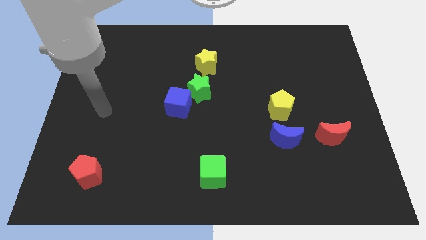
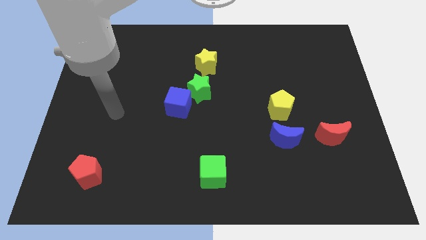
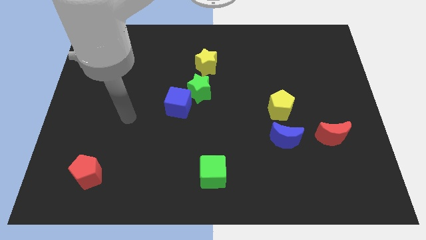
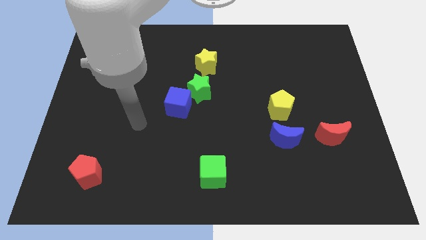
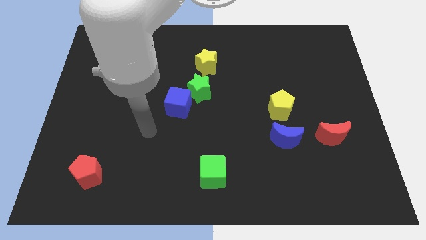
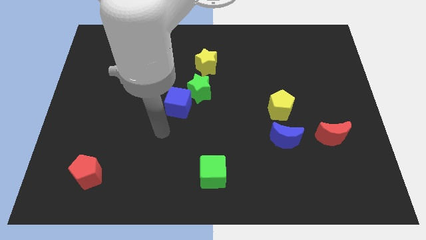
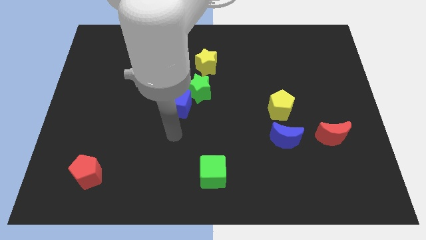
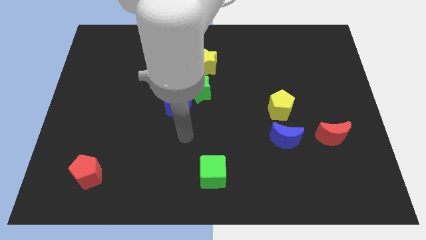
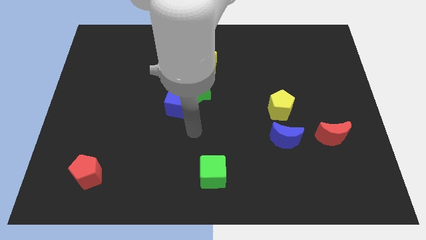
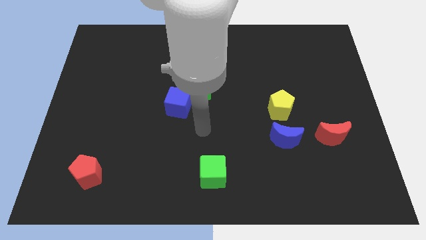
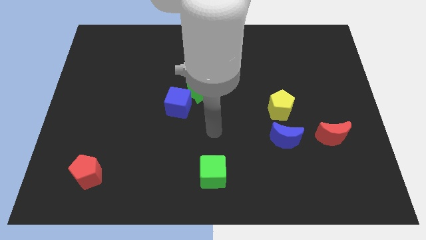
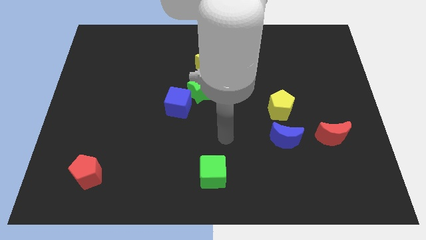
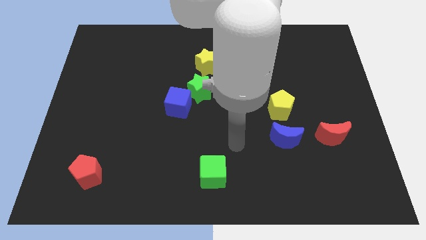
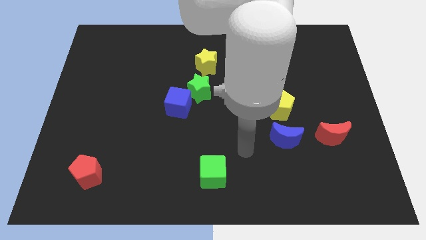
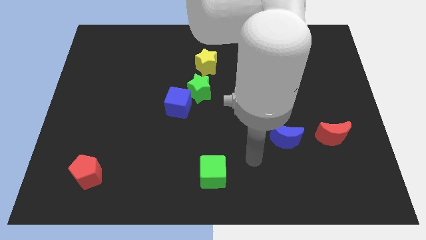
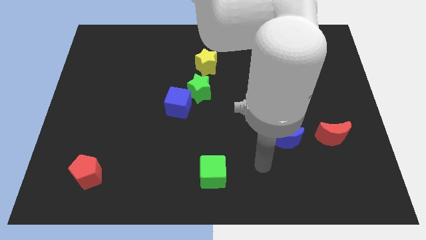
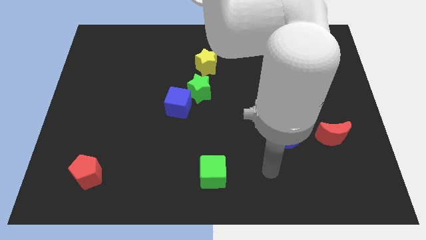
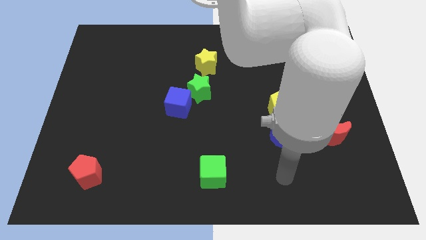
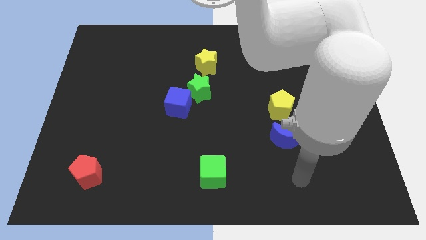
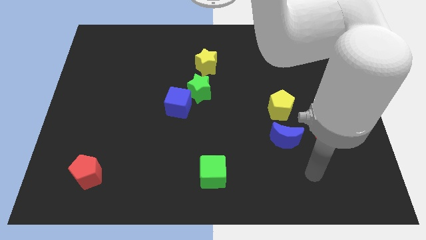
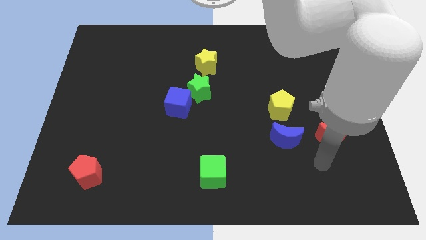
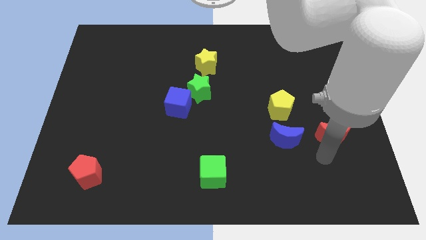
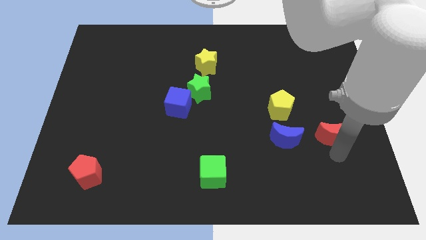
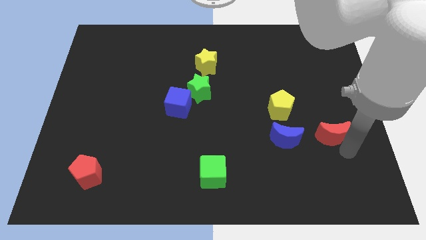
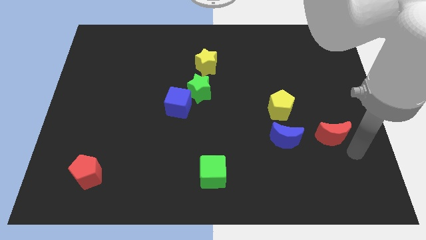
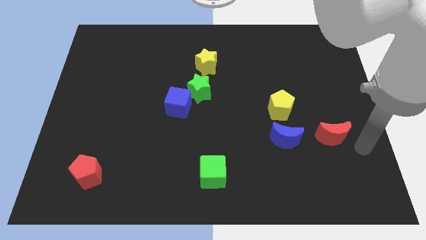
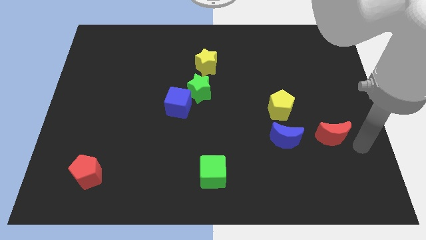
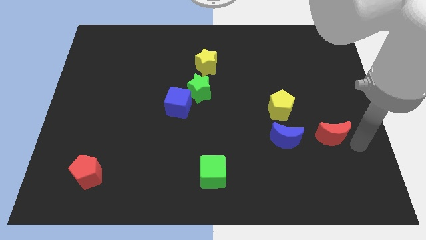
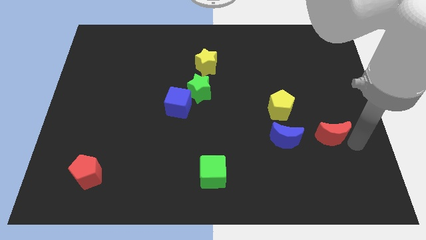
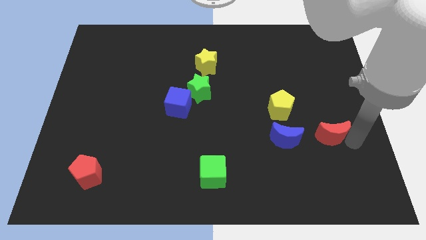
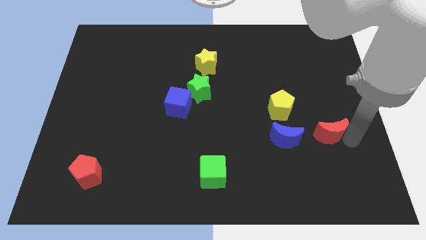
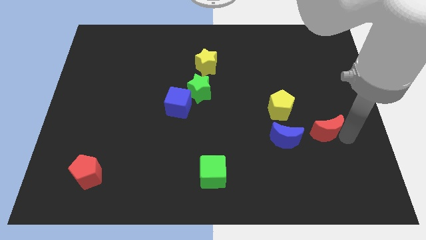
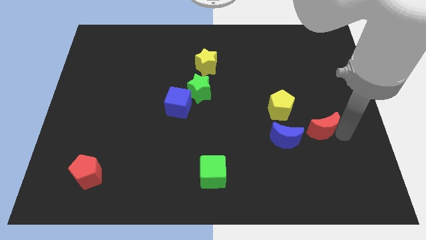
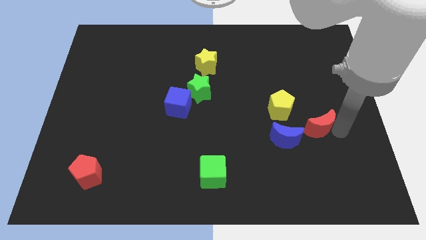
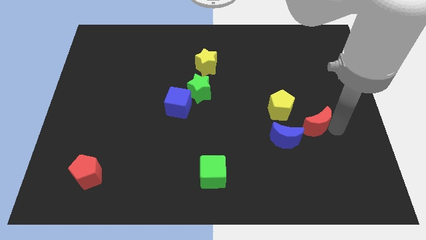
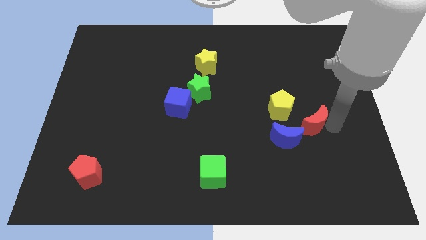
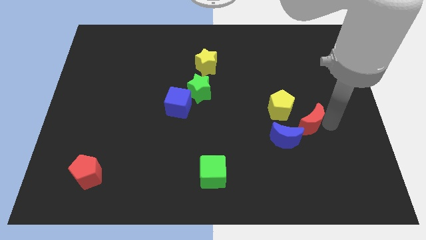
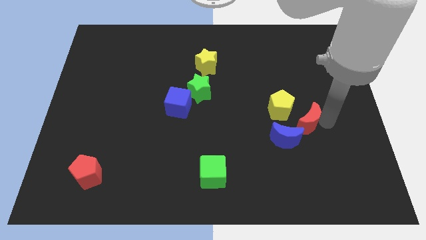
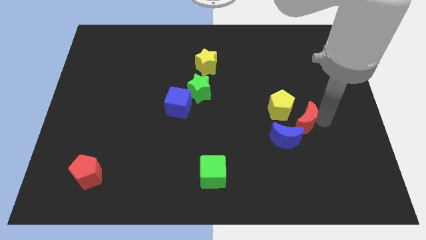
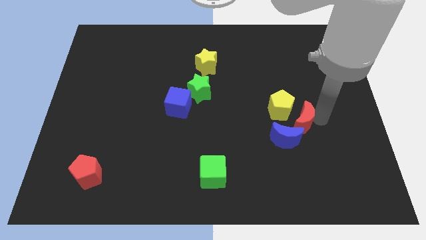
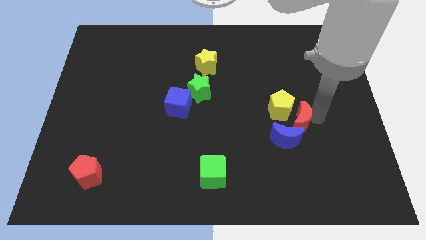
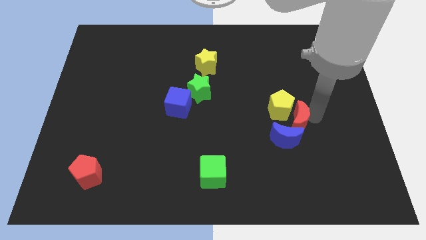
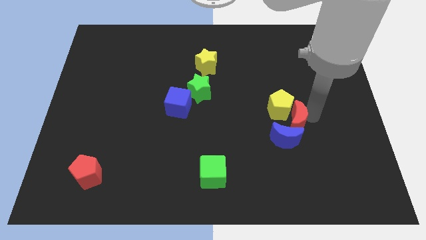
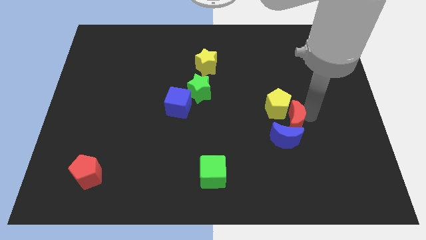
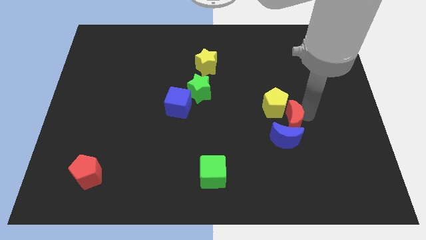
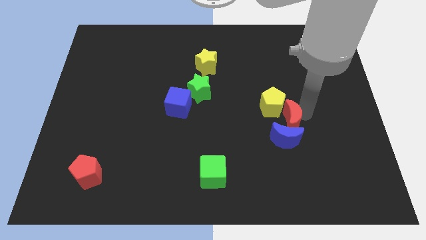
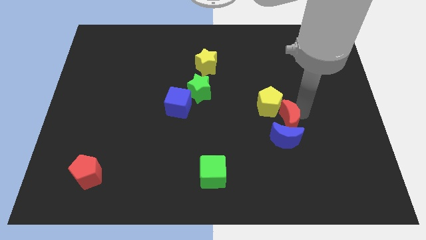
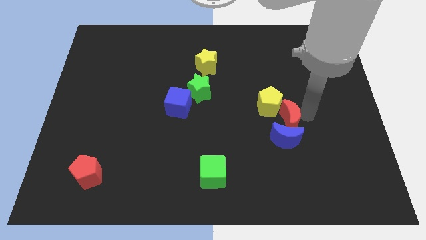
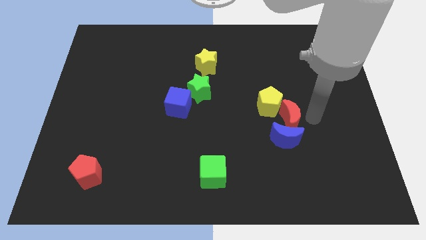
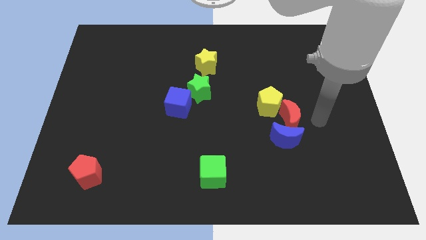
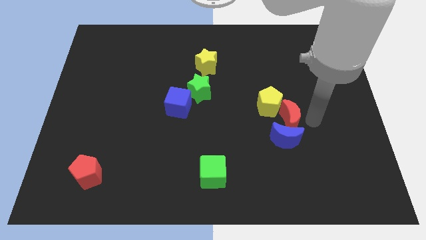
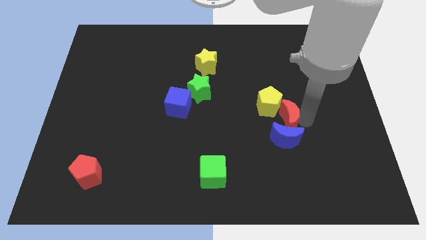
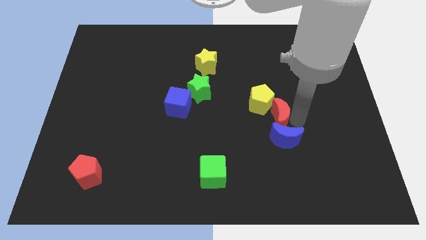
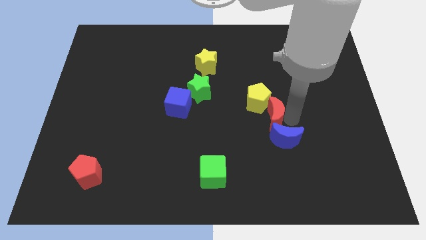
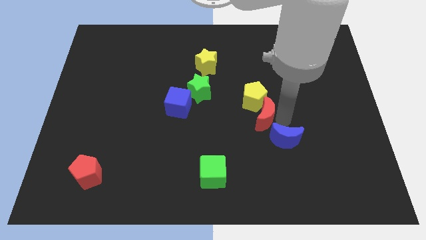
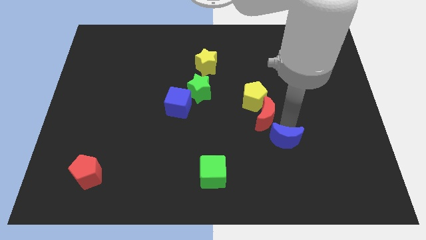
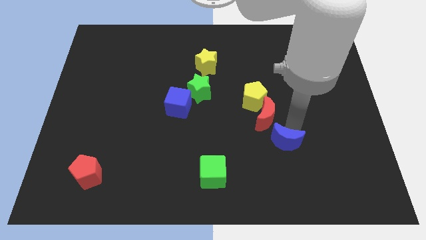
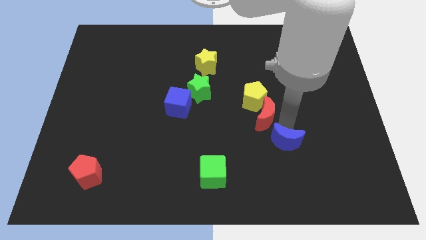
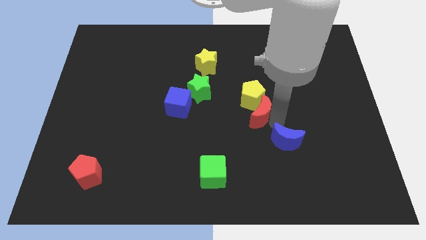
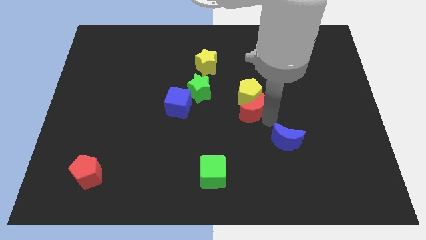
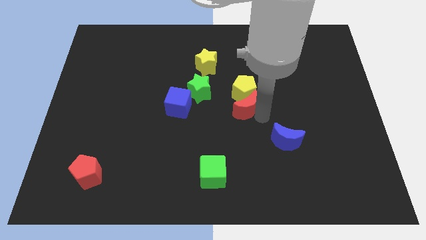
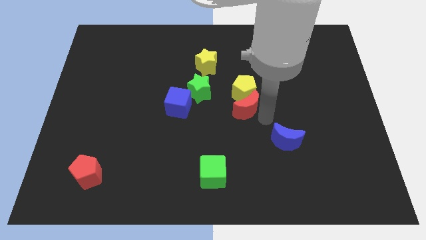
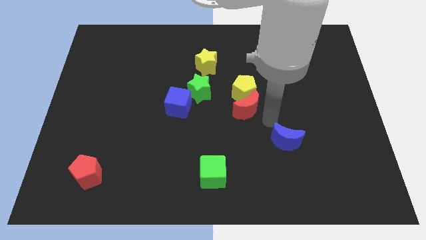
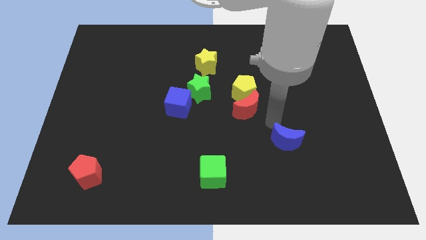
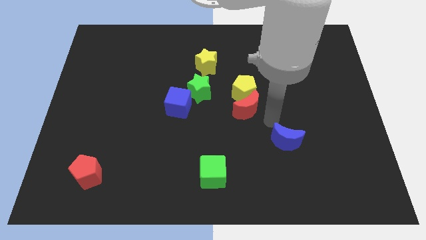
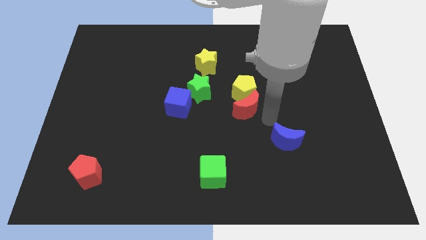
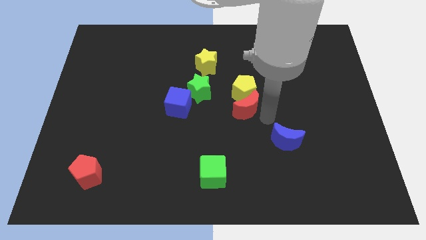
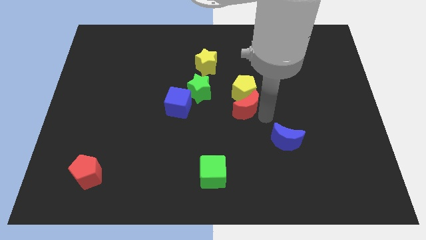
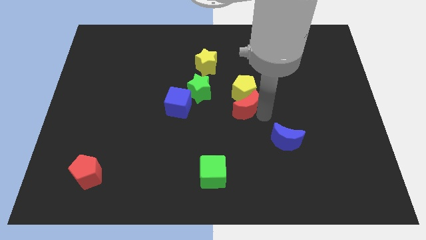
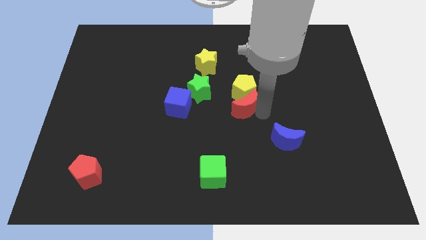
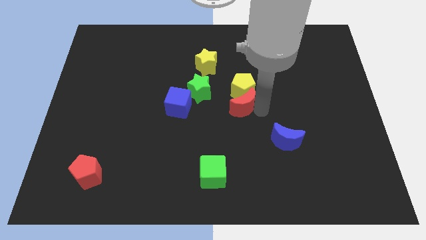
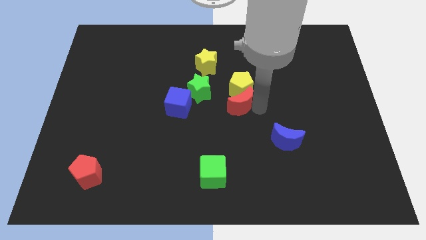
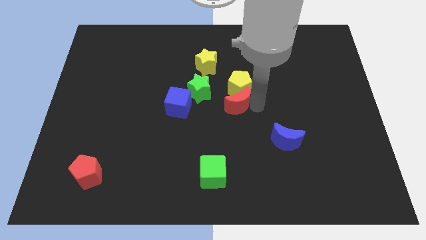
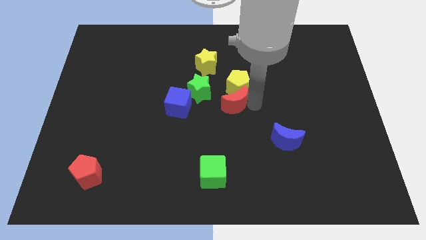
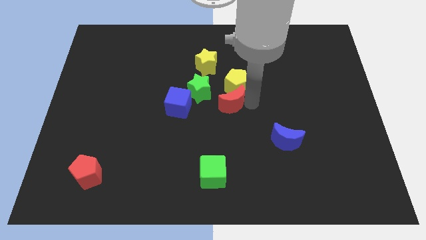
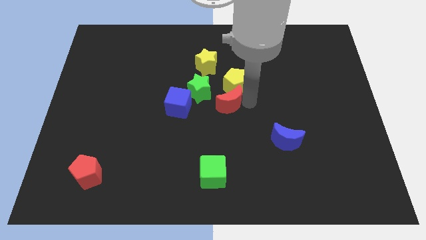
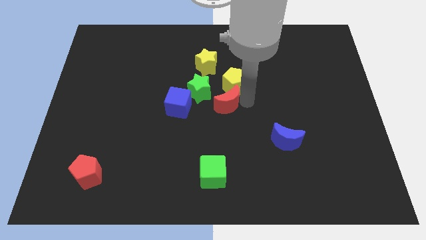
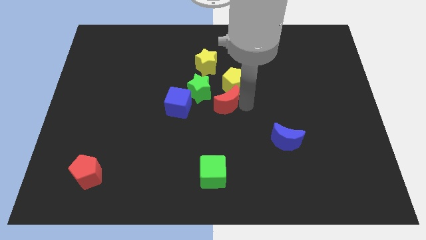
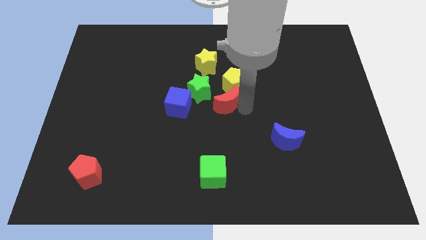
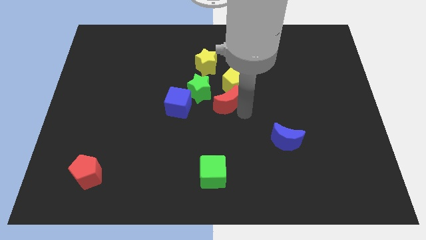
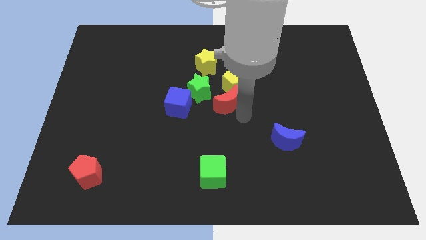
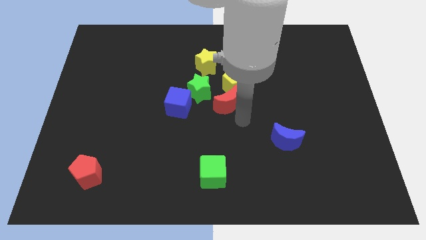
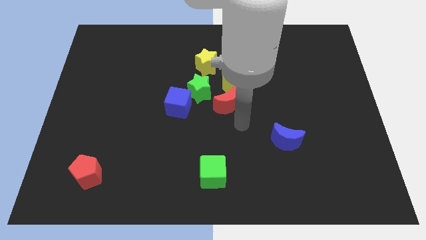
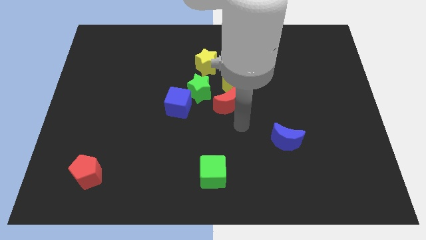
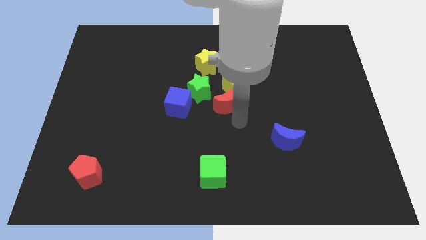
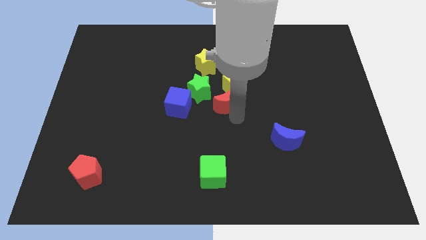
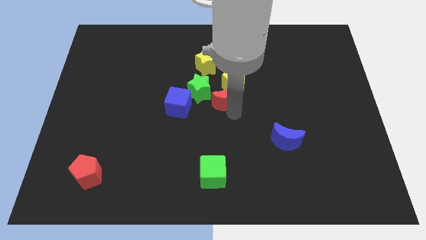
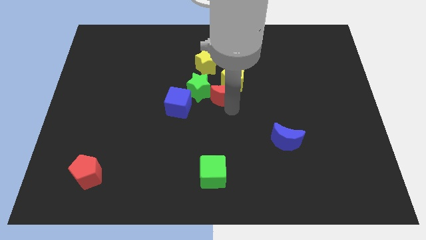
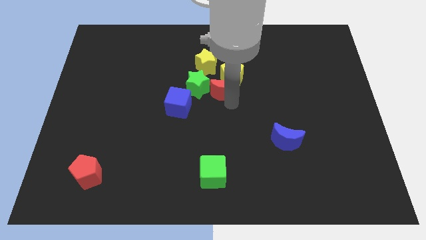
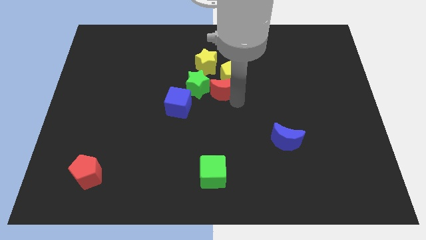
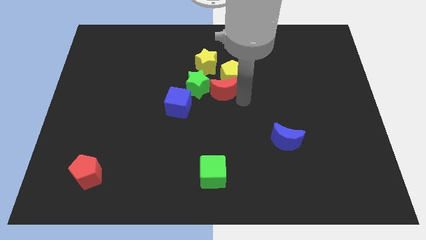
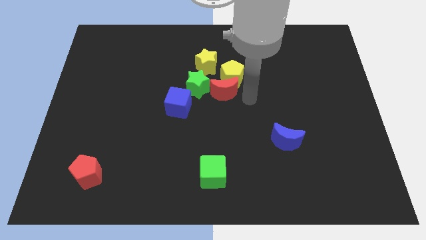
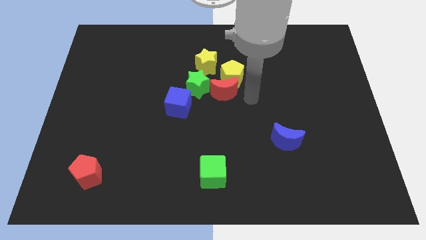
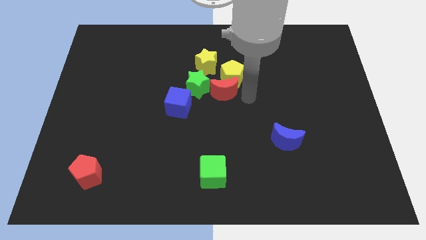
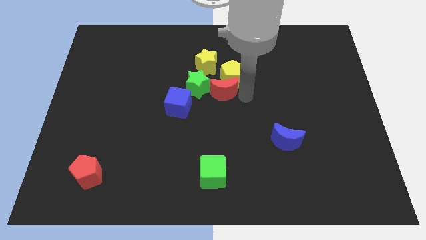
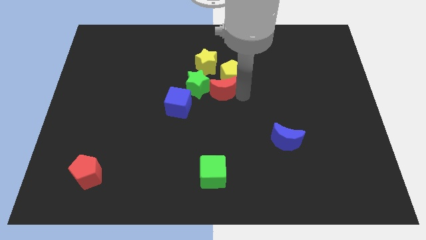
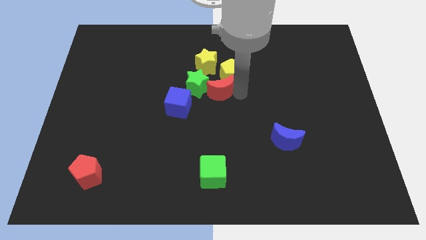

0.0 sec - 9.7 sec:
move the red moon next to the green star
